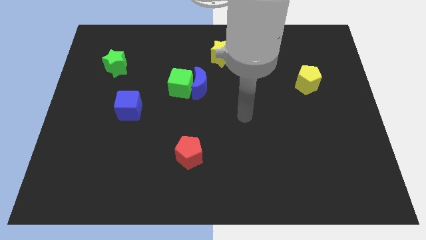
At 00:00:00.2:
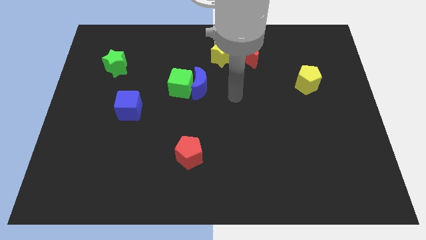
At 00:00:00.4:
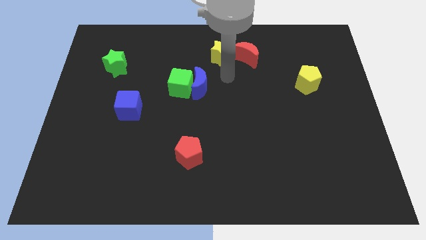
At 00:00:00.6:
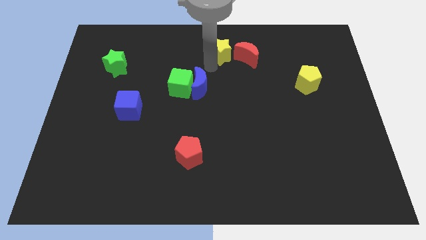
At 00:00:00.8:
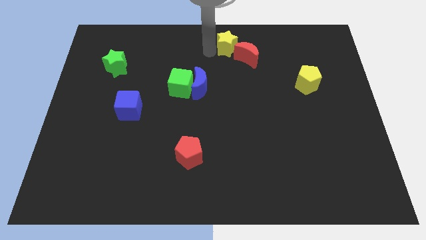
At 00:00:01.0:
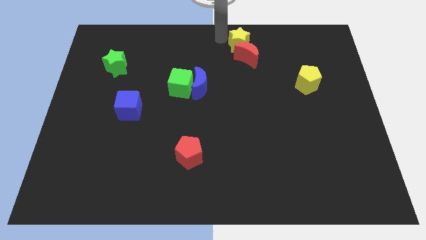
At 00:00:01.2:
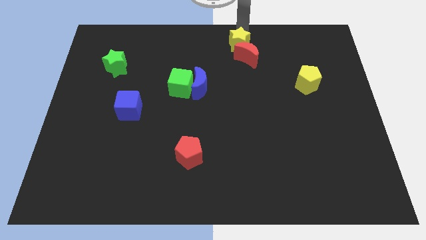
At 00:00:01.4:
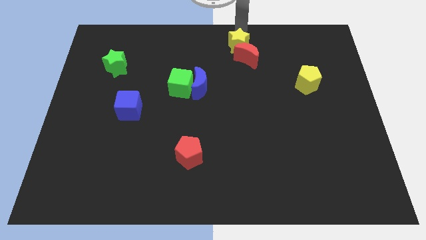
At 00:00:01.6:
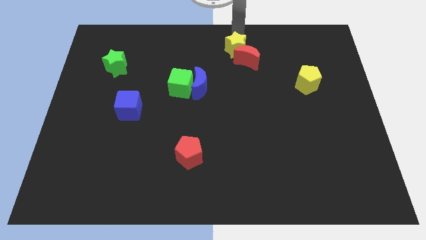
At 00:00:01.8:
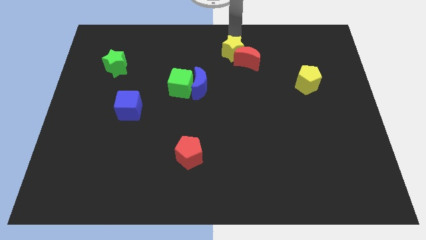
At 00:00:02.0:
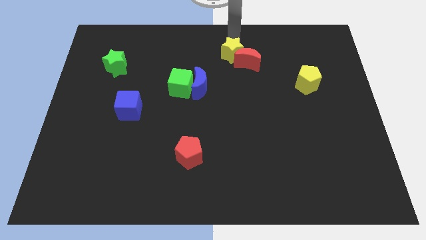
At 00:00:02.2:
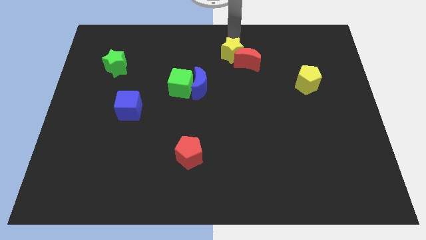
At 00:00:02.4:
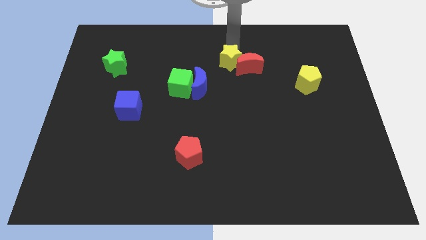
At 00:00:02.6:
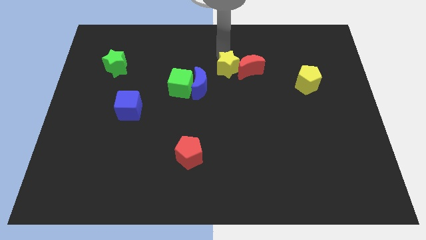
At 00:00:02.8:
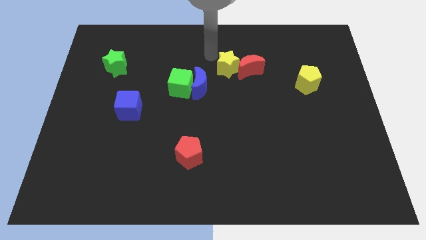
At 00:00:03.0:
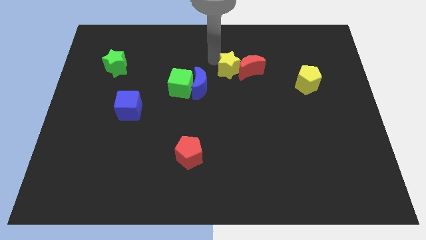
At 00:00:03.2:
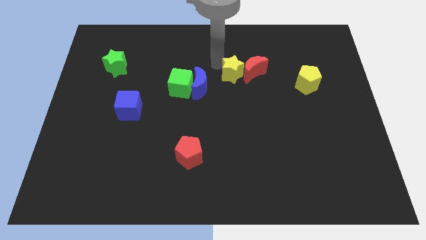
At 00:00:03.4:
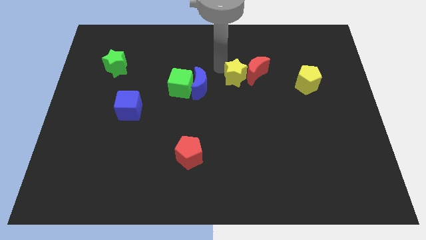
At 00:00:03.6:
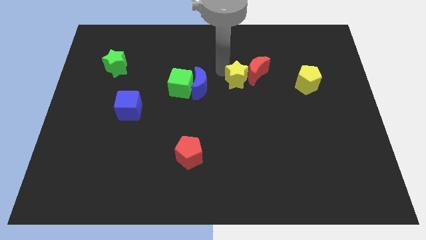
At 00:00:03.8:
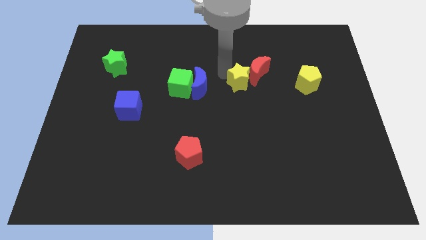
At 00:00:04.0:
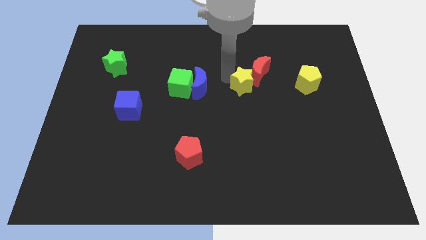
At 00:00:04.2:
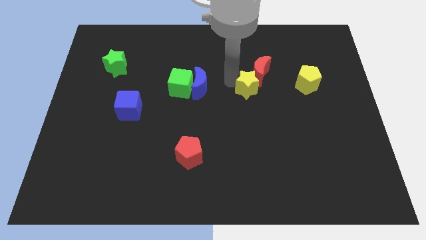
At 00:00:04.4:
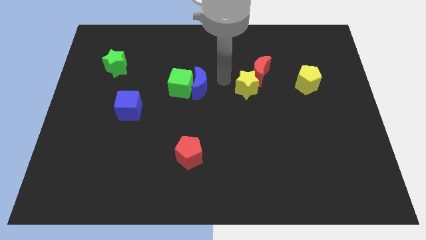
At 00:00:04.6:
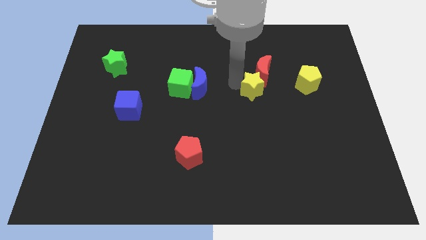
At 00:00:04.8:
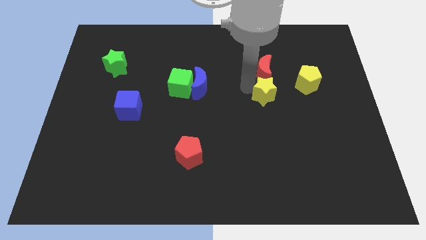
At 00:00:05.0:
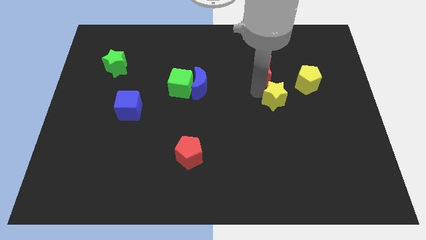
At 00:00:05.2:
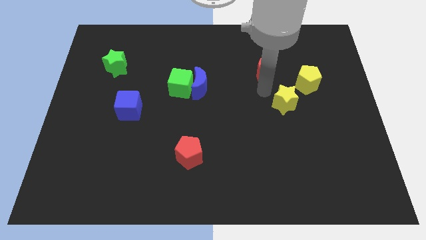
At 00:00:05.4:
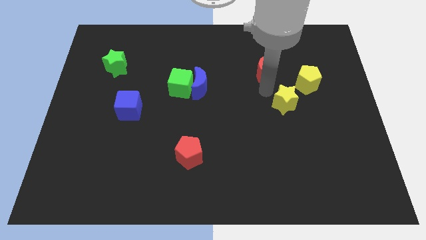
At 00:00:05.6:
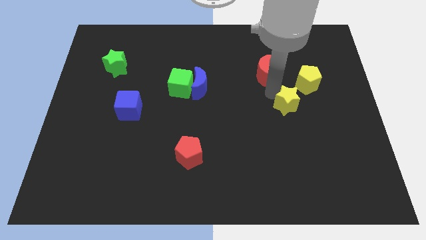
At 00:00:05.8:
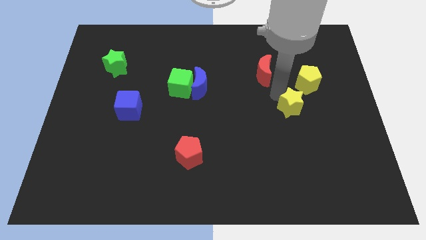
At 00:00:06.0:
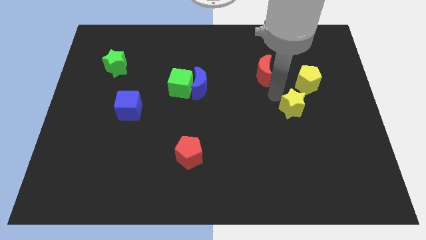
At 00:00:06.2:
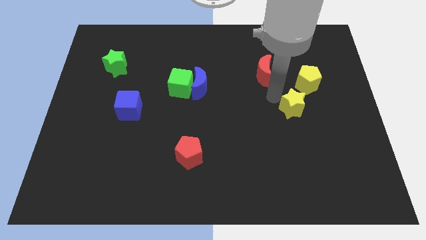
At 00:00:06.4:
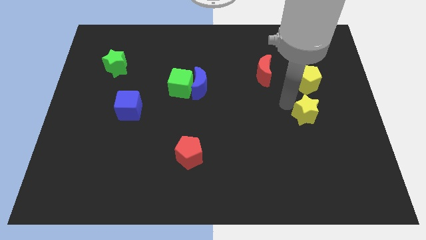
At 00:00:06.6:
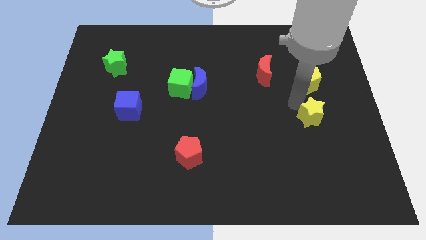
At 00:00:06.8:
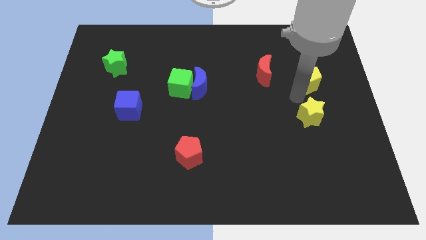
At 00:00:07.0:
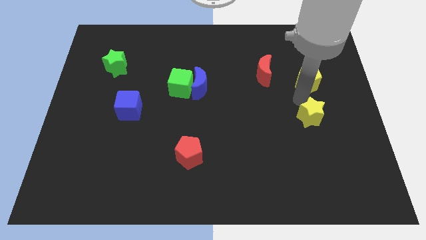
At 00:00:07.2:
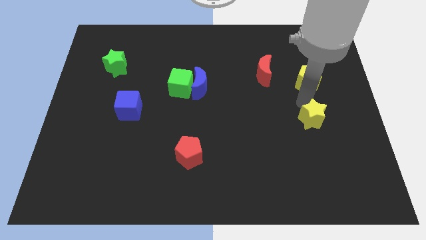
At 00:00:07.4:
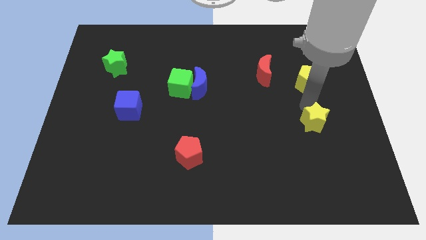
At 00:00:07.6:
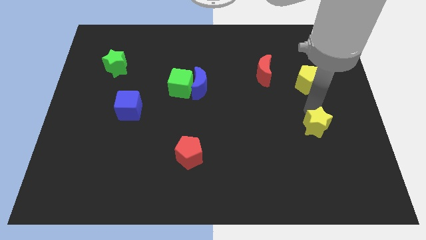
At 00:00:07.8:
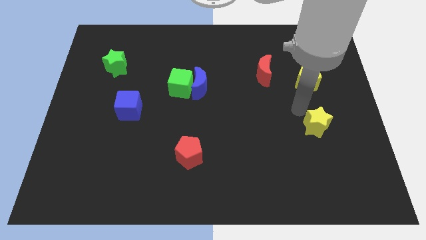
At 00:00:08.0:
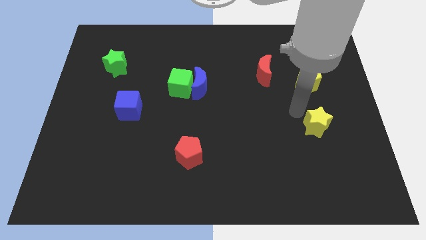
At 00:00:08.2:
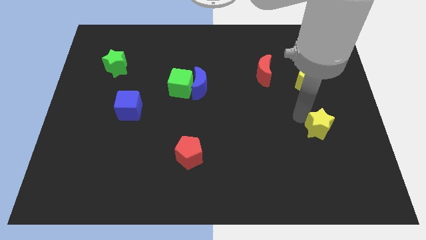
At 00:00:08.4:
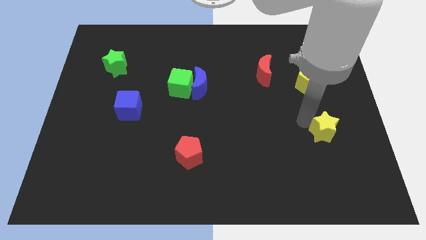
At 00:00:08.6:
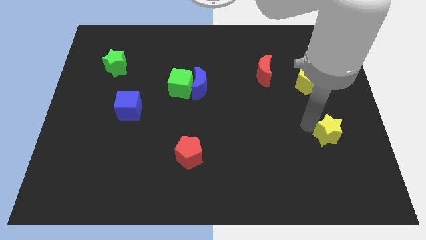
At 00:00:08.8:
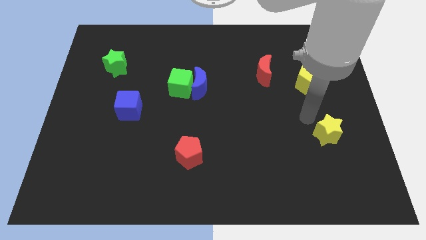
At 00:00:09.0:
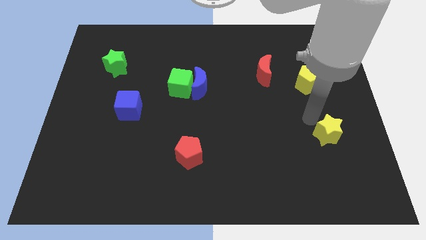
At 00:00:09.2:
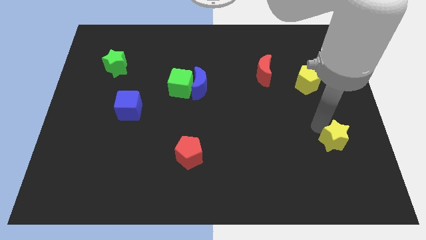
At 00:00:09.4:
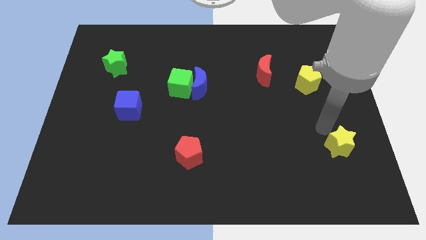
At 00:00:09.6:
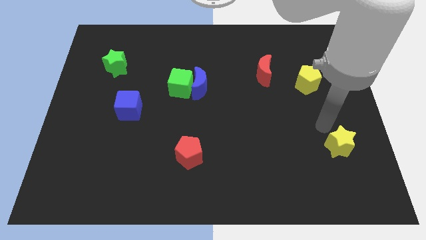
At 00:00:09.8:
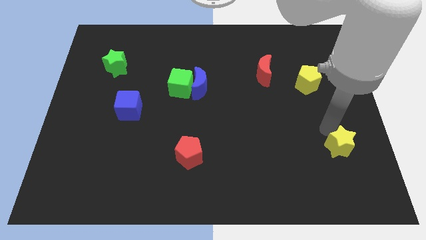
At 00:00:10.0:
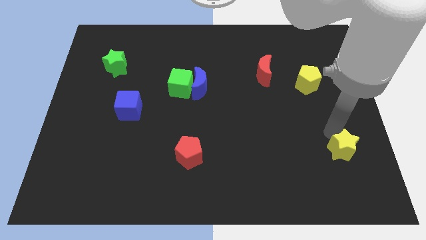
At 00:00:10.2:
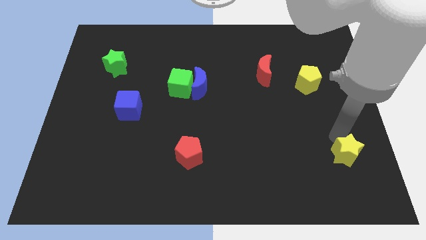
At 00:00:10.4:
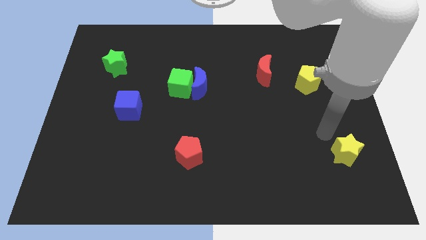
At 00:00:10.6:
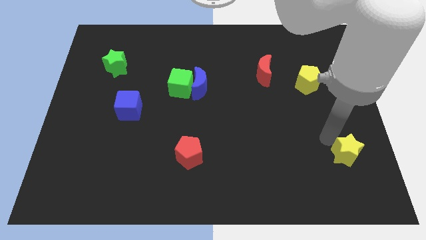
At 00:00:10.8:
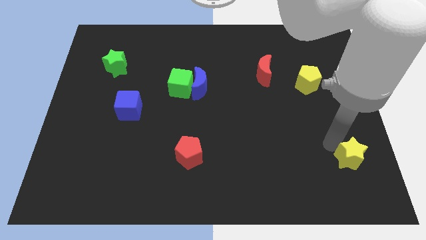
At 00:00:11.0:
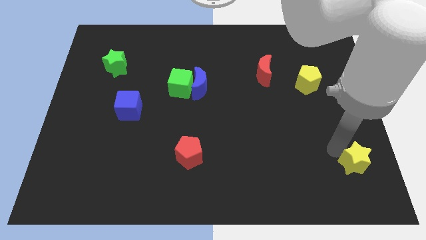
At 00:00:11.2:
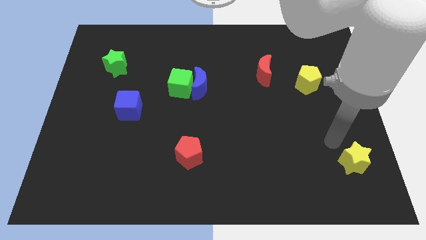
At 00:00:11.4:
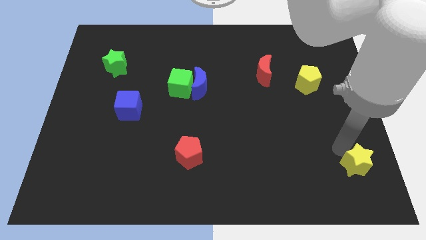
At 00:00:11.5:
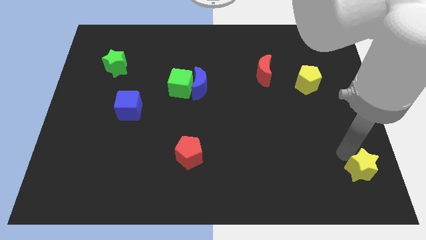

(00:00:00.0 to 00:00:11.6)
slide the yellow star to the bottom right corner

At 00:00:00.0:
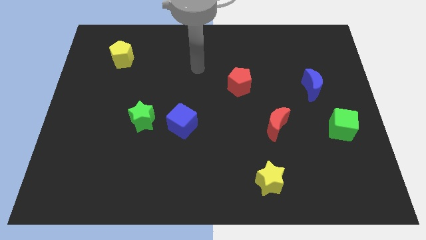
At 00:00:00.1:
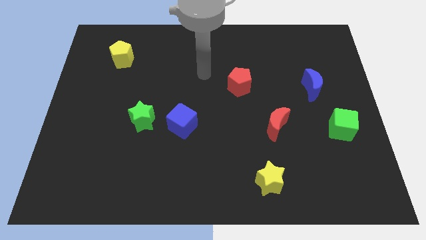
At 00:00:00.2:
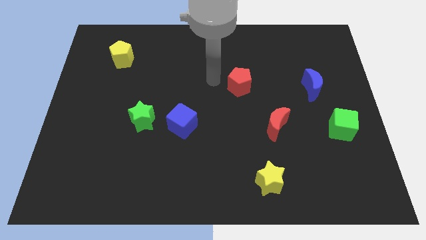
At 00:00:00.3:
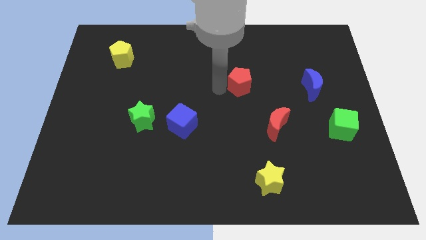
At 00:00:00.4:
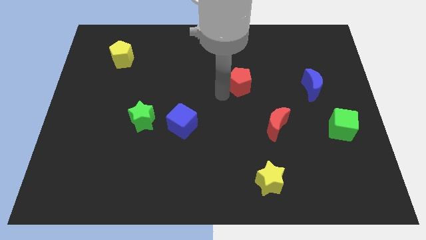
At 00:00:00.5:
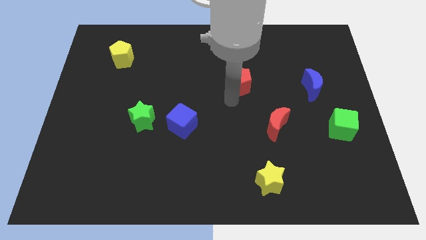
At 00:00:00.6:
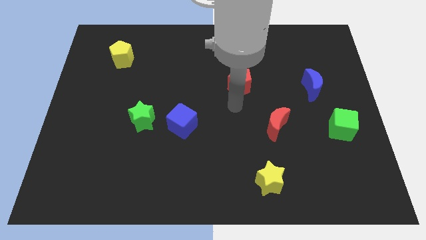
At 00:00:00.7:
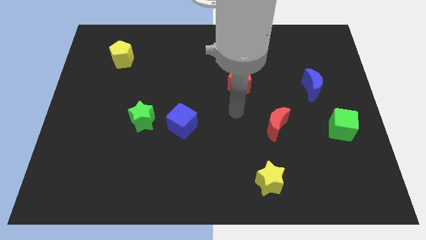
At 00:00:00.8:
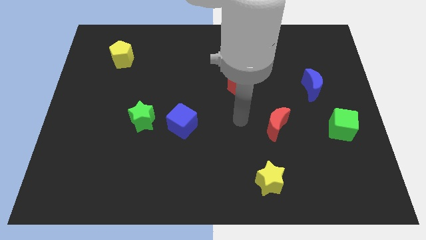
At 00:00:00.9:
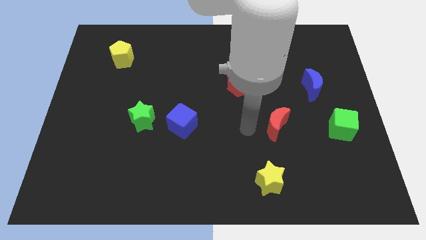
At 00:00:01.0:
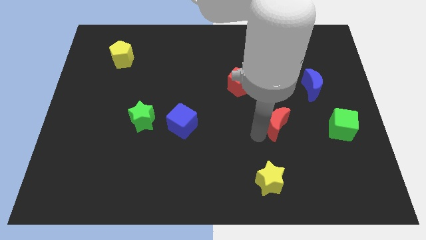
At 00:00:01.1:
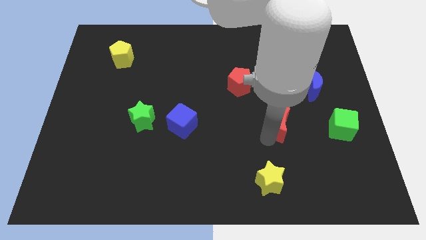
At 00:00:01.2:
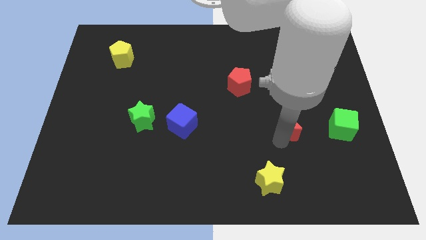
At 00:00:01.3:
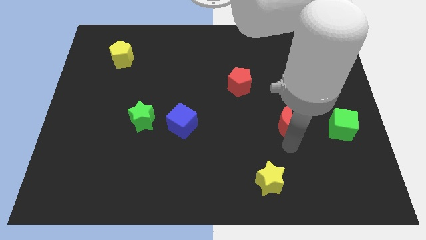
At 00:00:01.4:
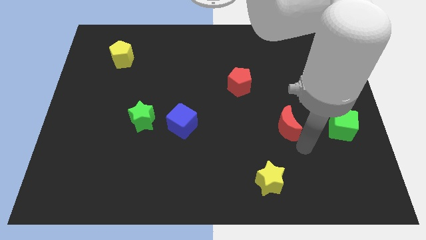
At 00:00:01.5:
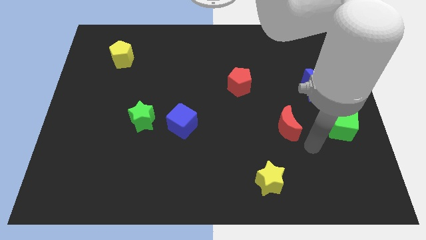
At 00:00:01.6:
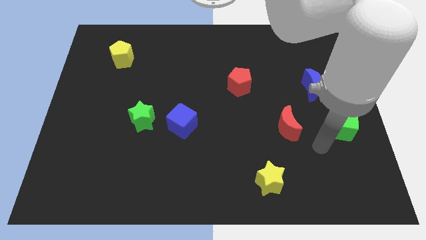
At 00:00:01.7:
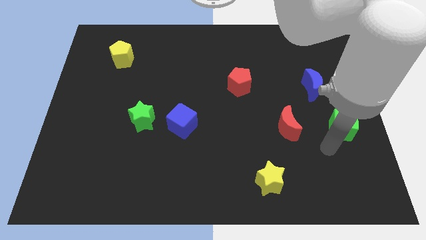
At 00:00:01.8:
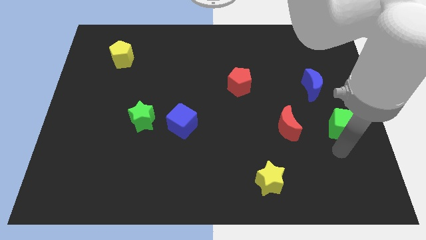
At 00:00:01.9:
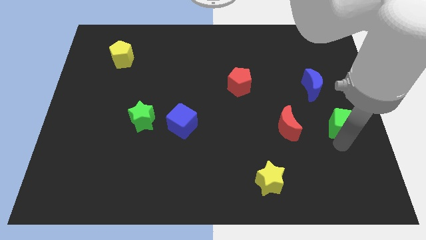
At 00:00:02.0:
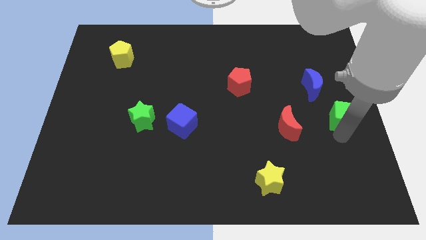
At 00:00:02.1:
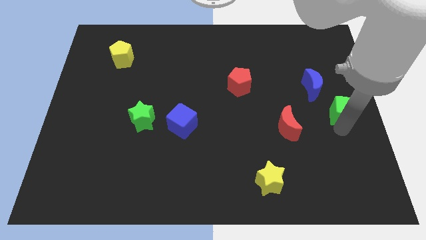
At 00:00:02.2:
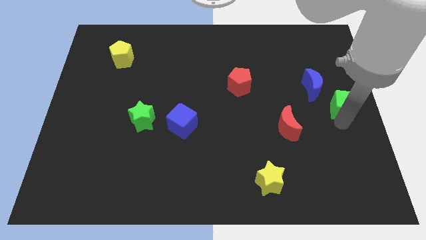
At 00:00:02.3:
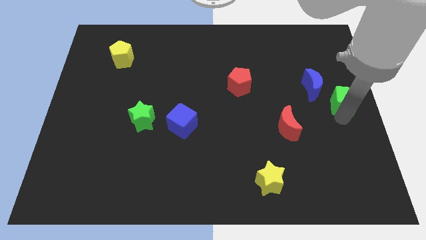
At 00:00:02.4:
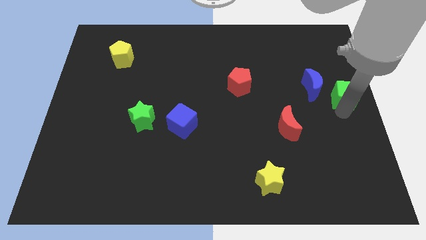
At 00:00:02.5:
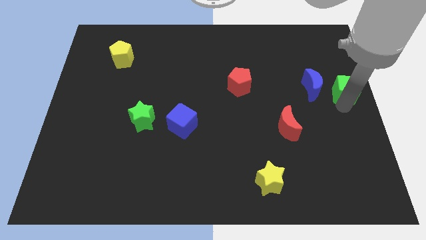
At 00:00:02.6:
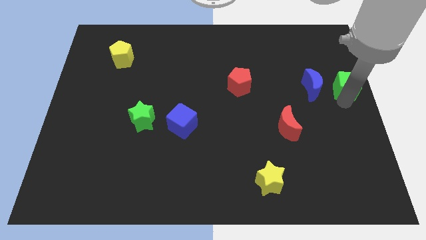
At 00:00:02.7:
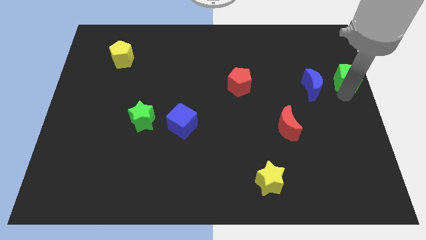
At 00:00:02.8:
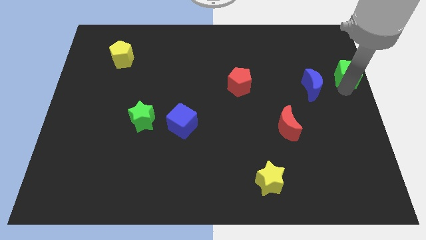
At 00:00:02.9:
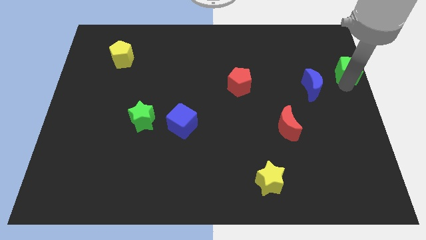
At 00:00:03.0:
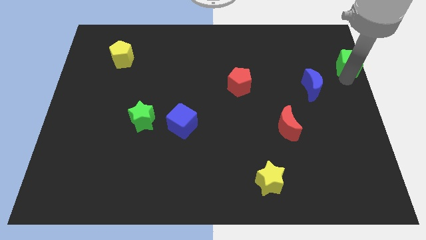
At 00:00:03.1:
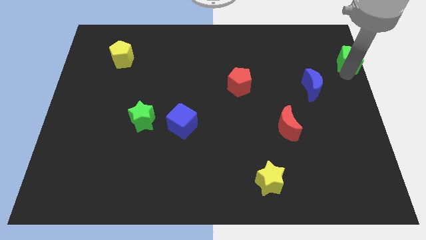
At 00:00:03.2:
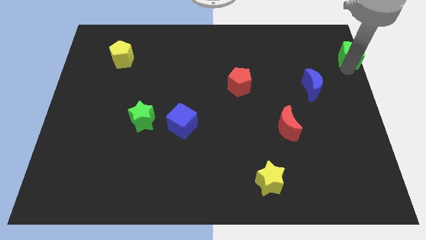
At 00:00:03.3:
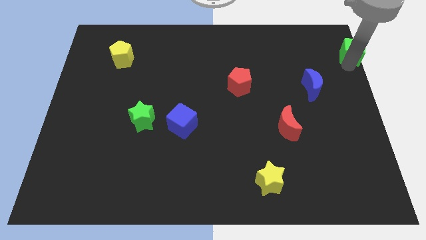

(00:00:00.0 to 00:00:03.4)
move the green cube to the top right corner
